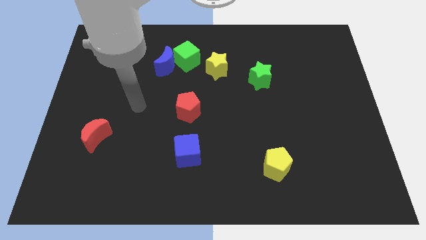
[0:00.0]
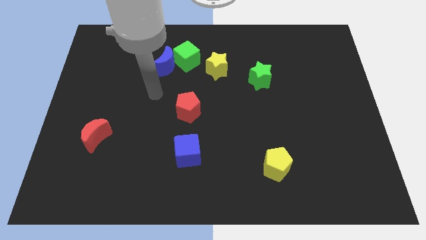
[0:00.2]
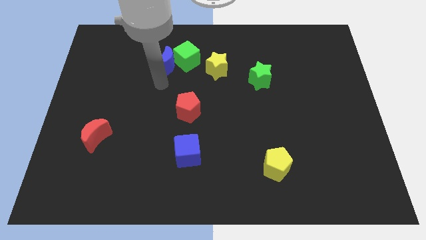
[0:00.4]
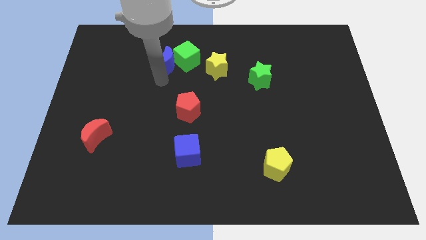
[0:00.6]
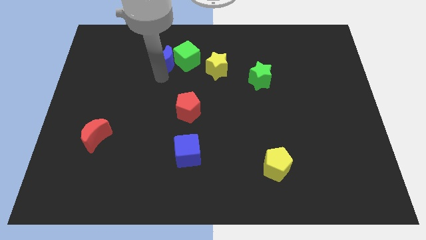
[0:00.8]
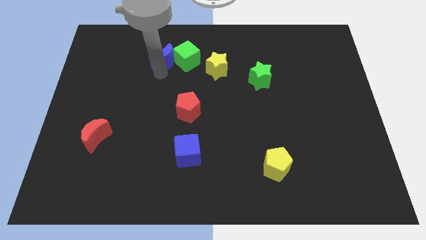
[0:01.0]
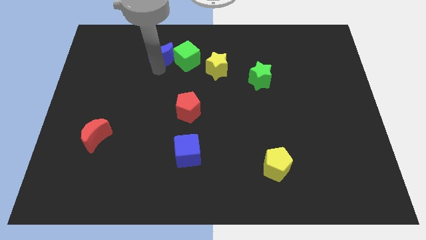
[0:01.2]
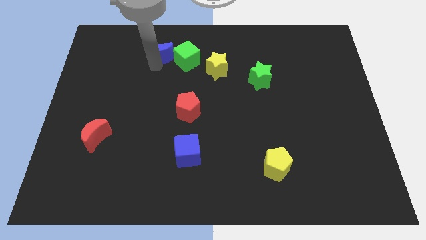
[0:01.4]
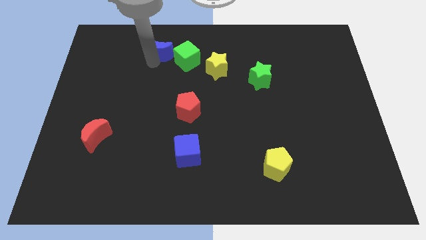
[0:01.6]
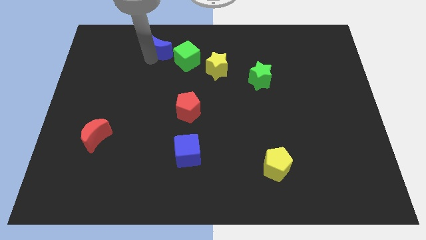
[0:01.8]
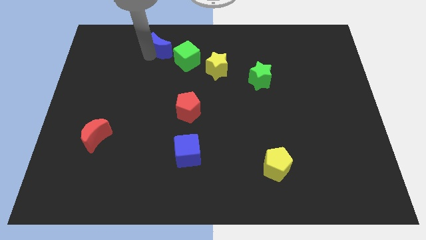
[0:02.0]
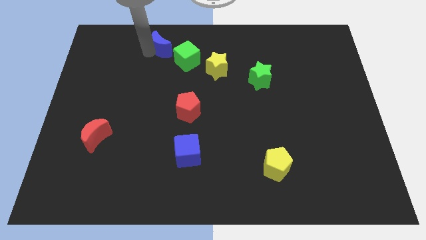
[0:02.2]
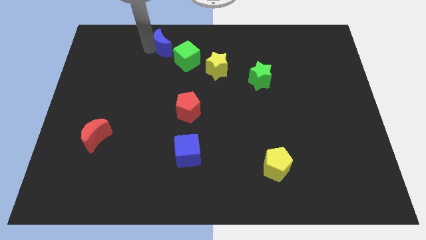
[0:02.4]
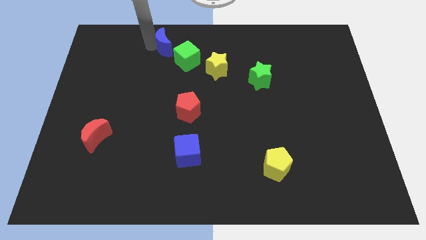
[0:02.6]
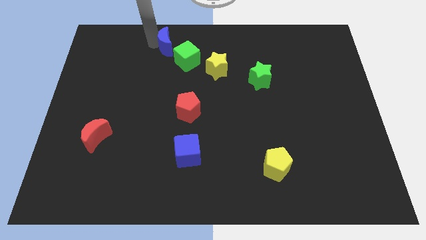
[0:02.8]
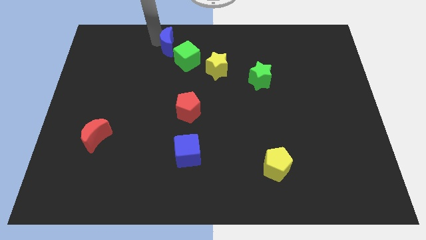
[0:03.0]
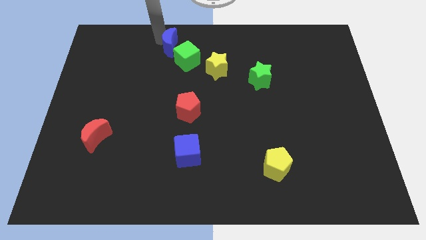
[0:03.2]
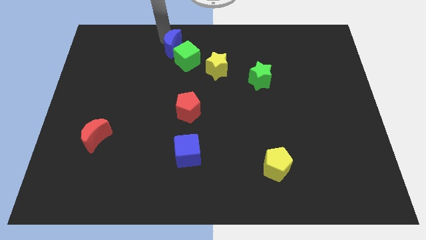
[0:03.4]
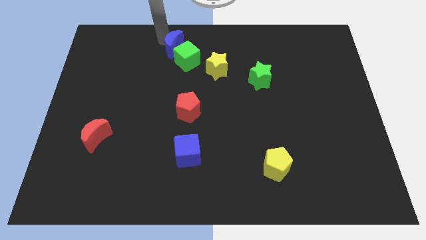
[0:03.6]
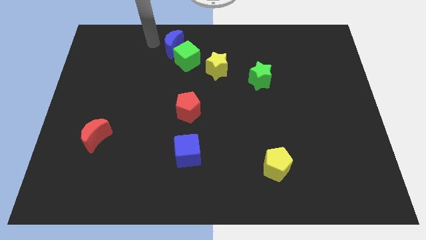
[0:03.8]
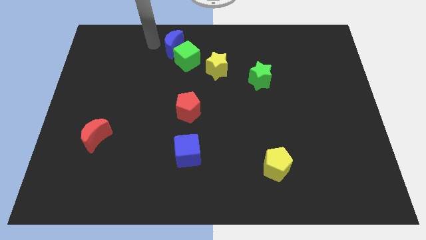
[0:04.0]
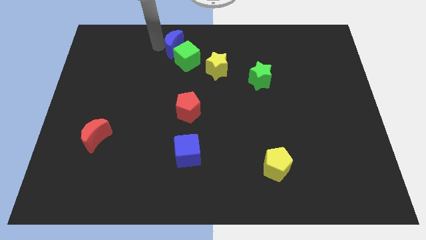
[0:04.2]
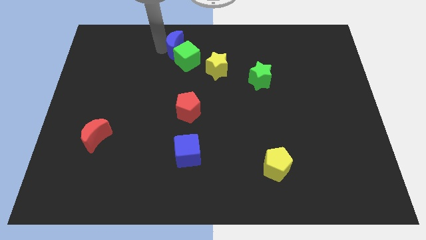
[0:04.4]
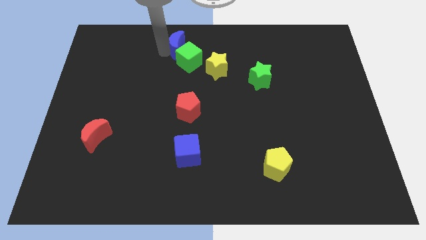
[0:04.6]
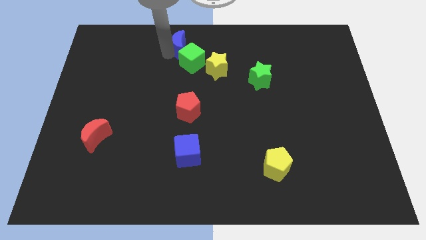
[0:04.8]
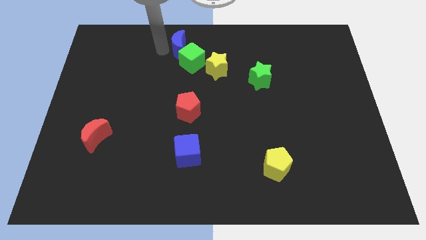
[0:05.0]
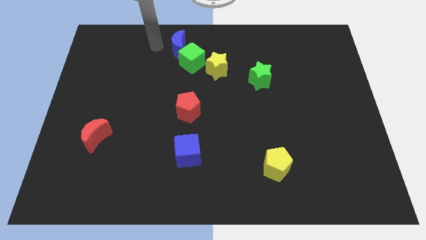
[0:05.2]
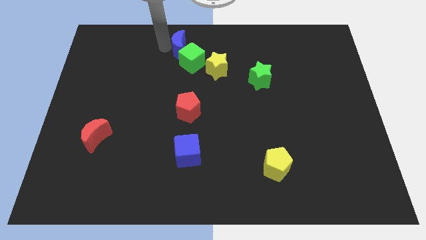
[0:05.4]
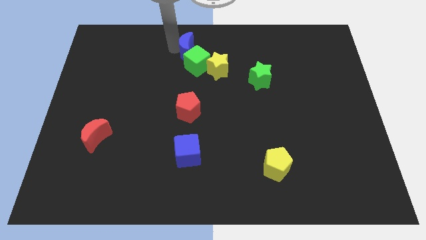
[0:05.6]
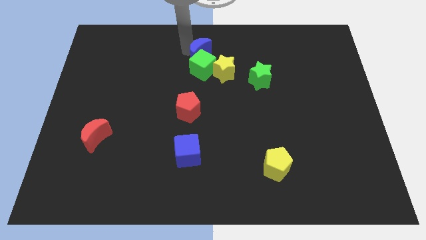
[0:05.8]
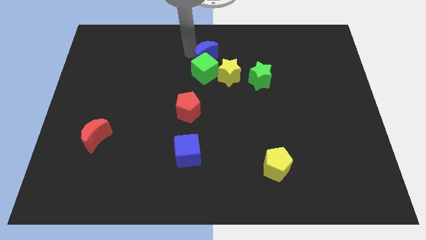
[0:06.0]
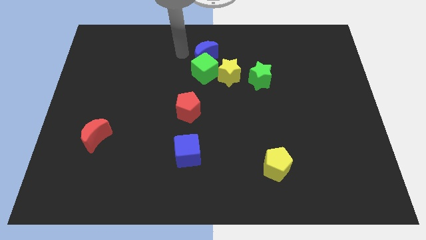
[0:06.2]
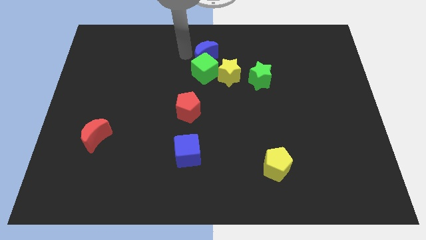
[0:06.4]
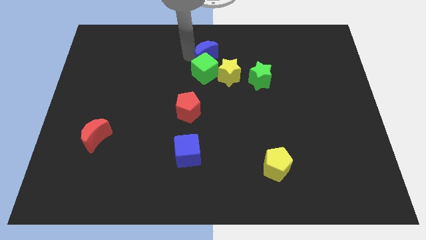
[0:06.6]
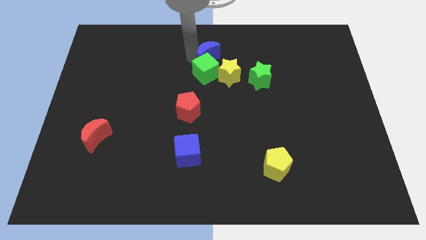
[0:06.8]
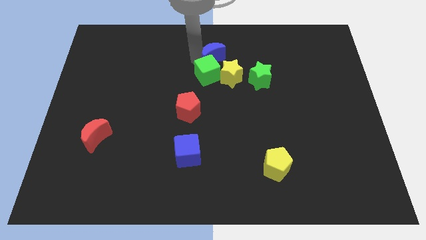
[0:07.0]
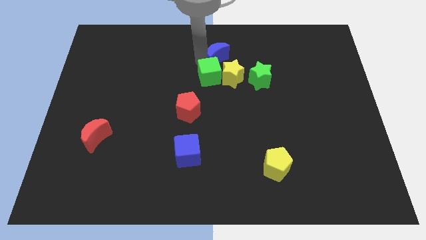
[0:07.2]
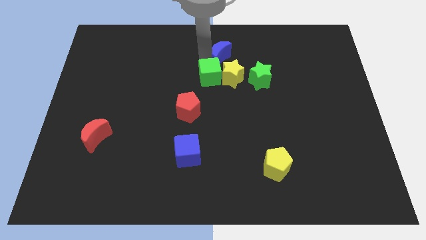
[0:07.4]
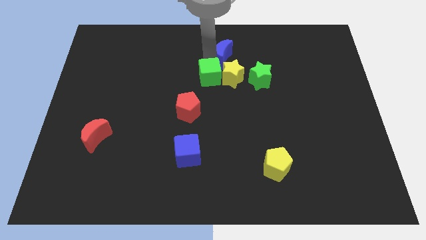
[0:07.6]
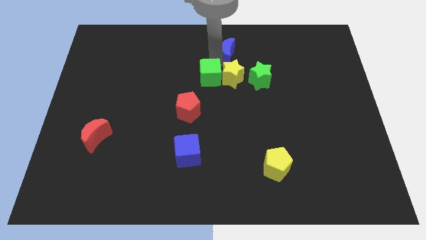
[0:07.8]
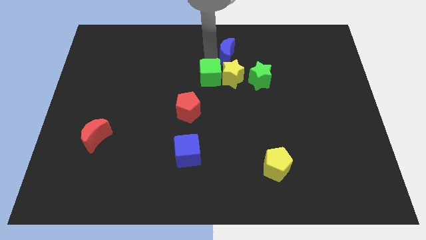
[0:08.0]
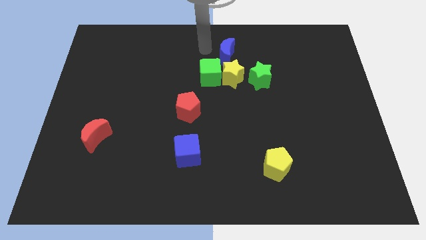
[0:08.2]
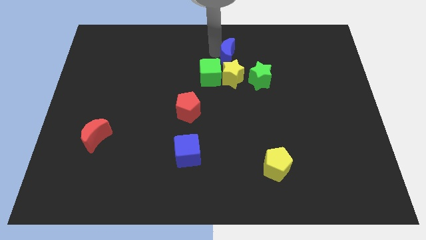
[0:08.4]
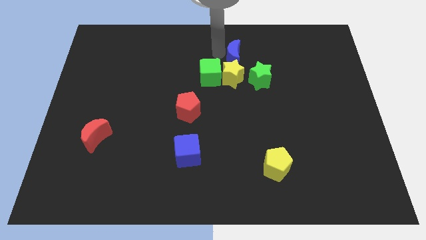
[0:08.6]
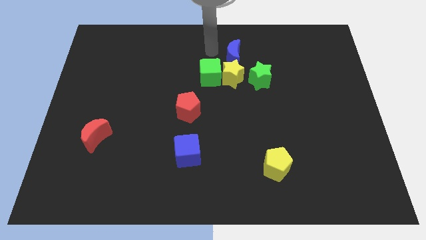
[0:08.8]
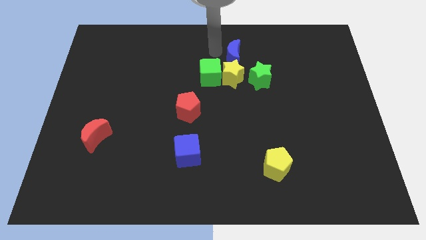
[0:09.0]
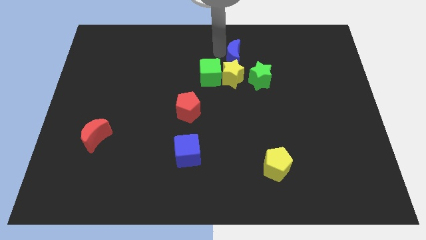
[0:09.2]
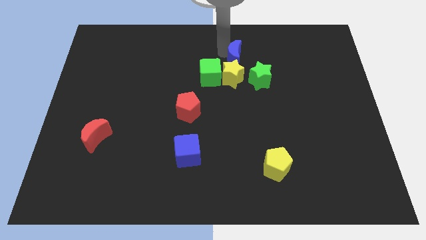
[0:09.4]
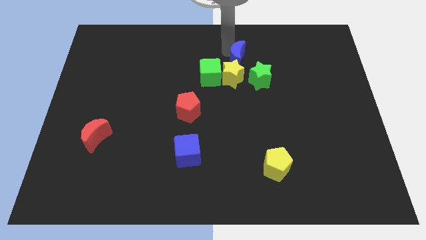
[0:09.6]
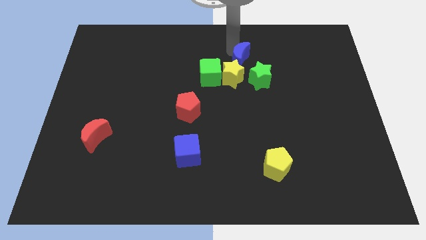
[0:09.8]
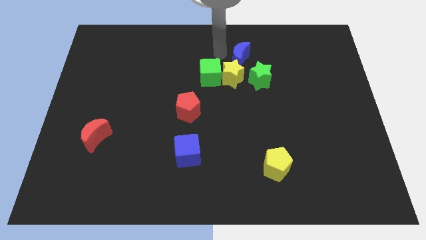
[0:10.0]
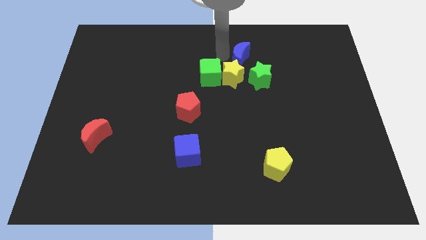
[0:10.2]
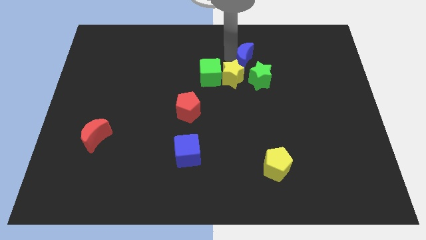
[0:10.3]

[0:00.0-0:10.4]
push the blue moon right

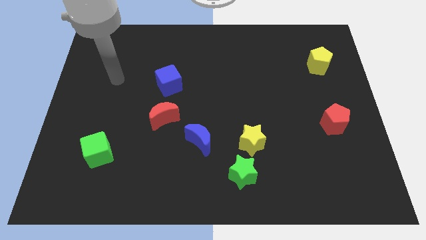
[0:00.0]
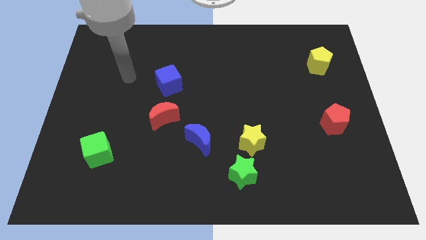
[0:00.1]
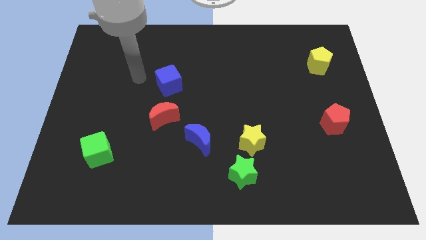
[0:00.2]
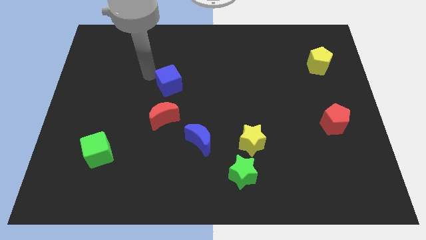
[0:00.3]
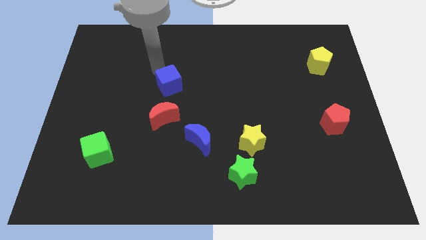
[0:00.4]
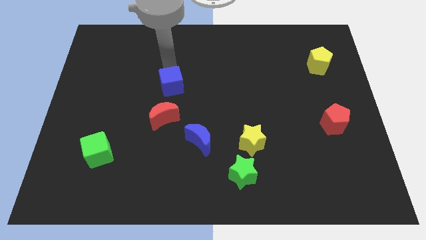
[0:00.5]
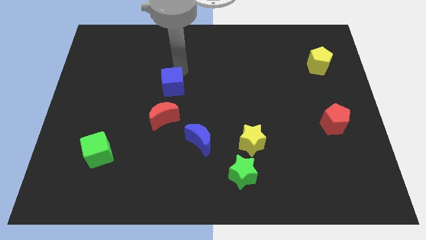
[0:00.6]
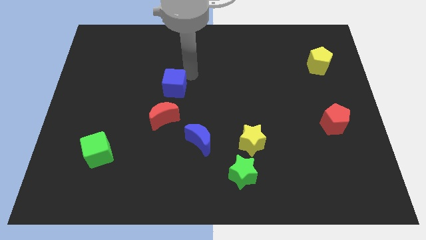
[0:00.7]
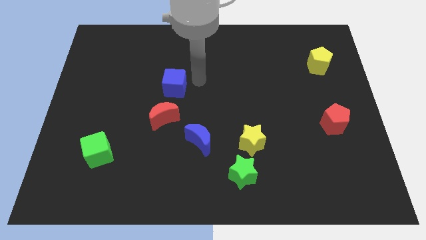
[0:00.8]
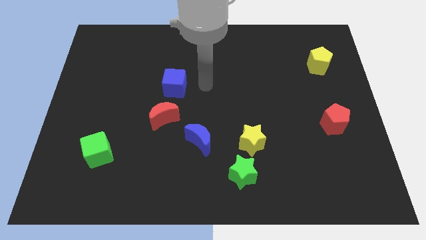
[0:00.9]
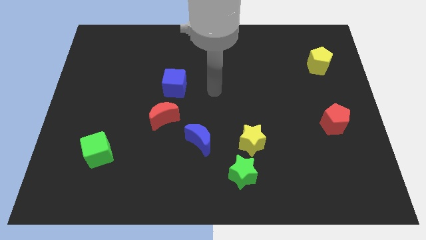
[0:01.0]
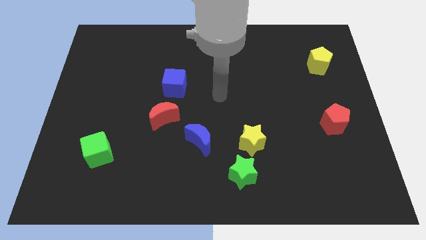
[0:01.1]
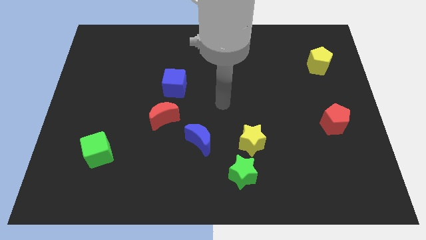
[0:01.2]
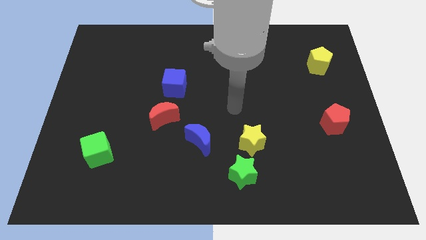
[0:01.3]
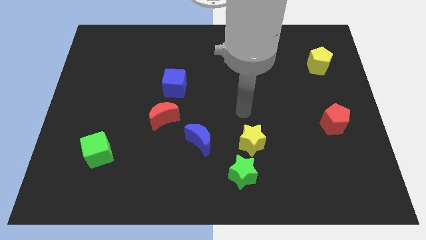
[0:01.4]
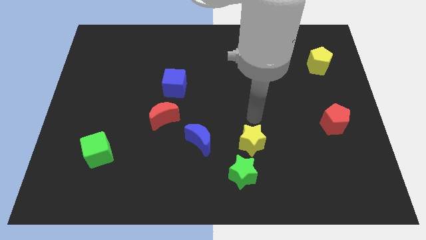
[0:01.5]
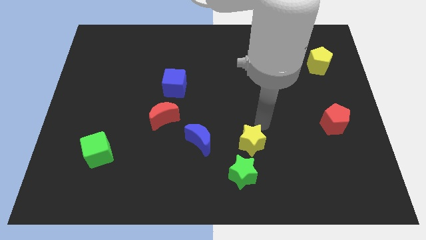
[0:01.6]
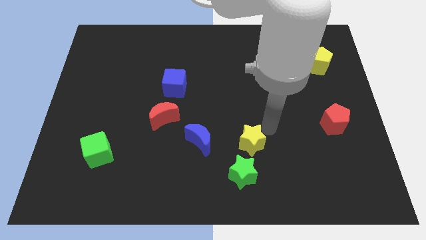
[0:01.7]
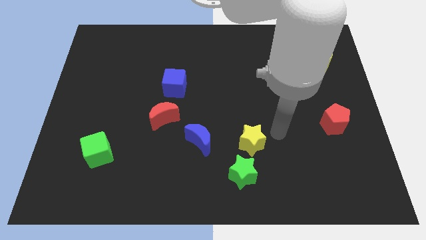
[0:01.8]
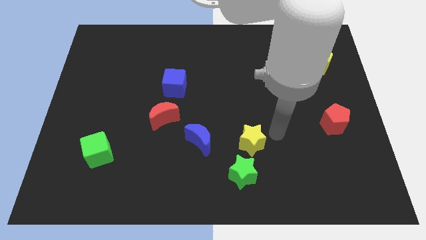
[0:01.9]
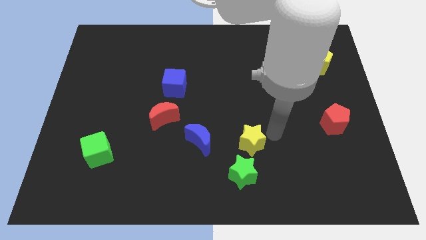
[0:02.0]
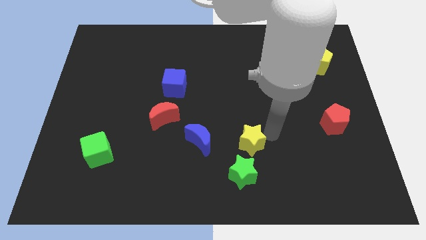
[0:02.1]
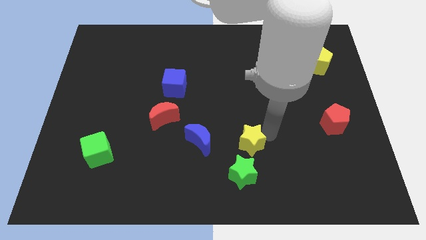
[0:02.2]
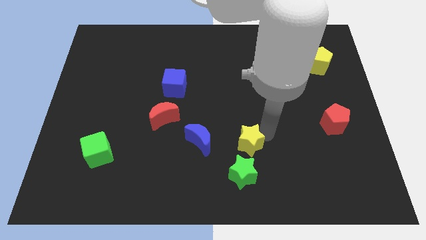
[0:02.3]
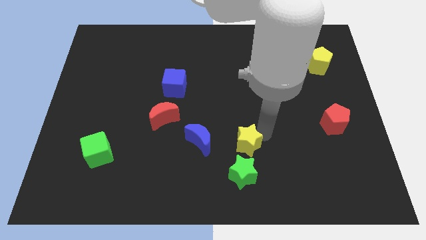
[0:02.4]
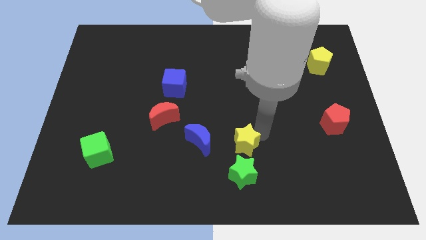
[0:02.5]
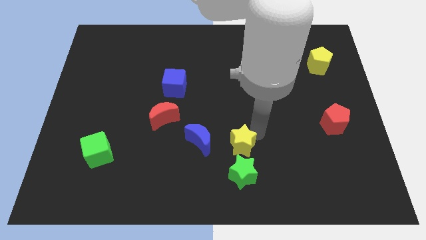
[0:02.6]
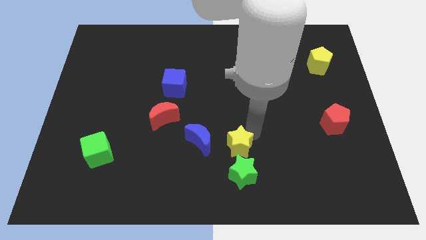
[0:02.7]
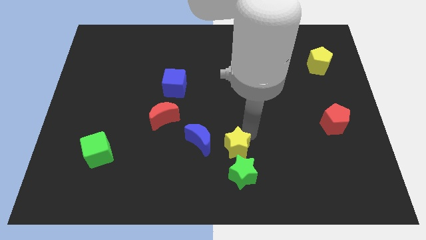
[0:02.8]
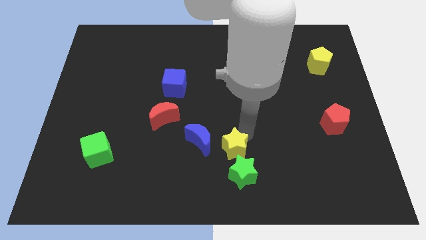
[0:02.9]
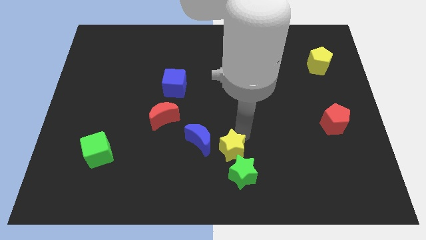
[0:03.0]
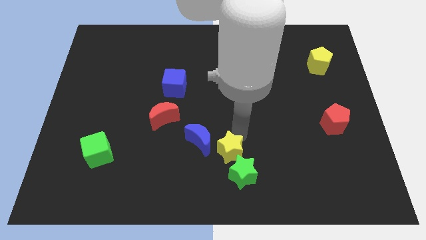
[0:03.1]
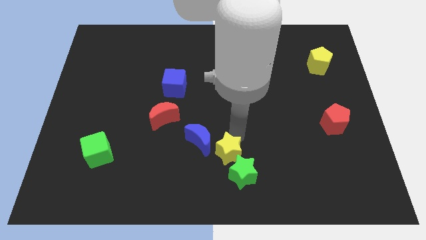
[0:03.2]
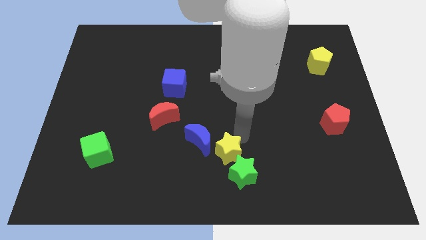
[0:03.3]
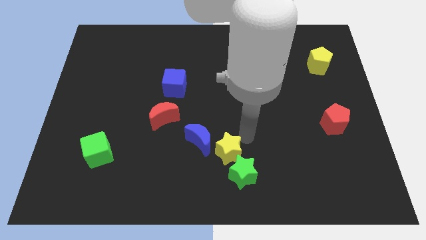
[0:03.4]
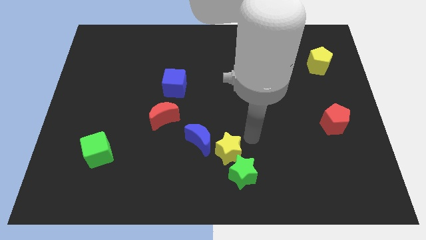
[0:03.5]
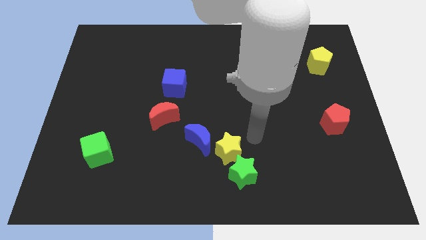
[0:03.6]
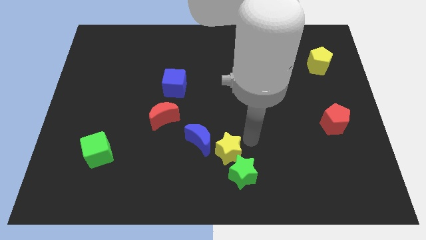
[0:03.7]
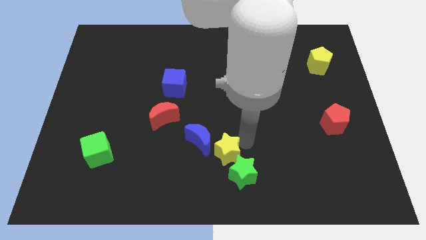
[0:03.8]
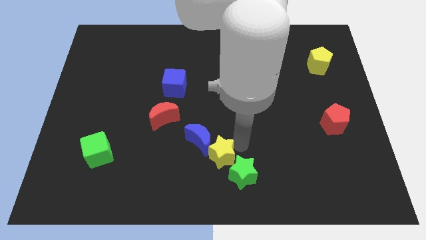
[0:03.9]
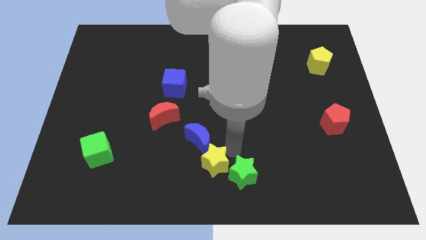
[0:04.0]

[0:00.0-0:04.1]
slightly move the yellow star left
